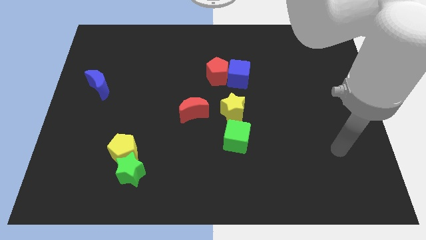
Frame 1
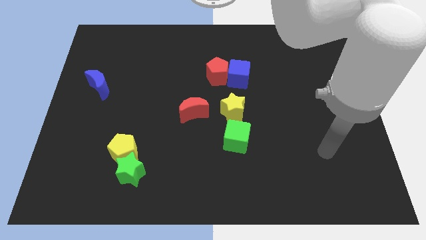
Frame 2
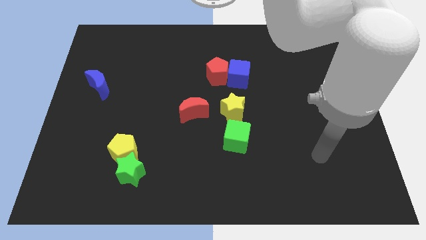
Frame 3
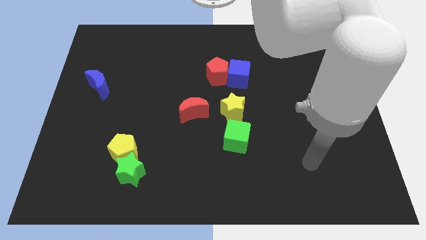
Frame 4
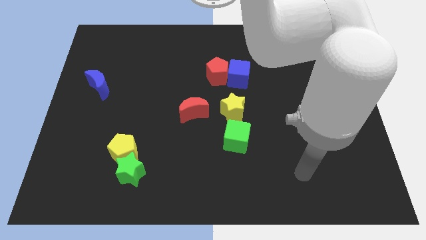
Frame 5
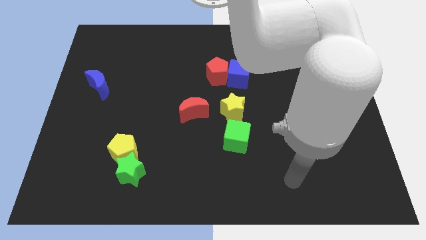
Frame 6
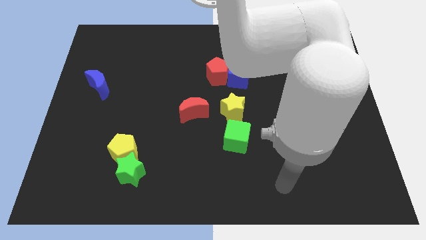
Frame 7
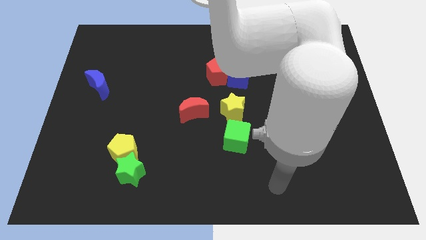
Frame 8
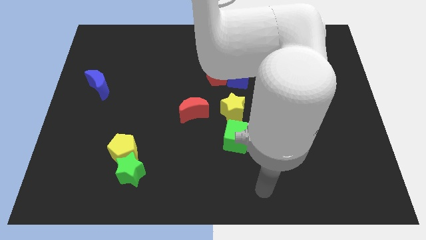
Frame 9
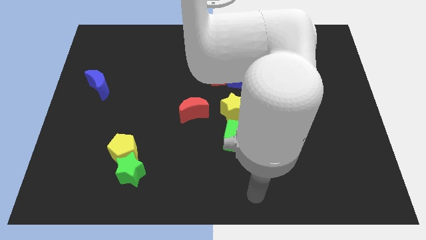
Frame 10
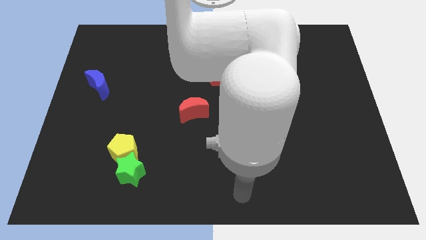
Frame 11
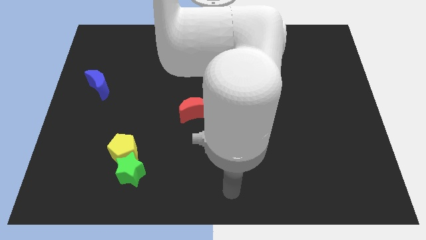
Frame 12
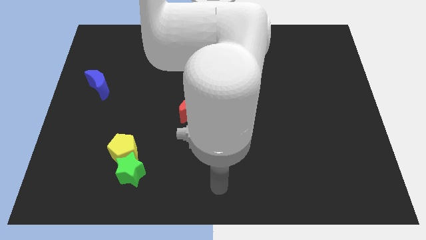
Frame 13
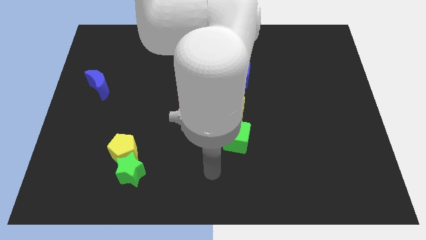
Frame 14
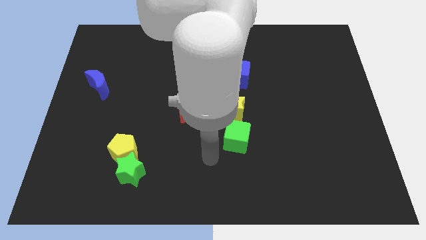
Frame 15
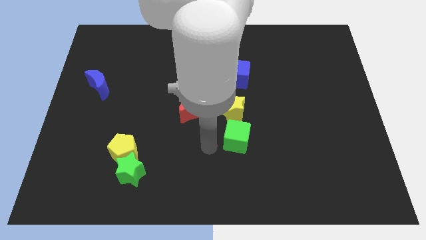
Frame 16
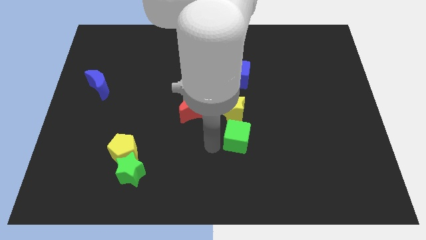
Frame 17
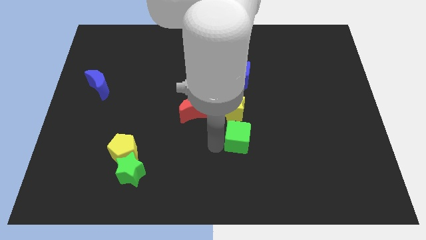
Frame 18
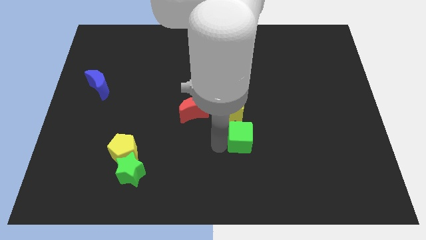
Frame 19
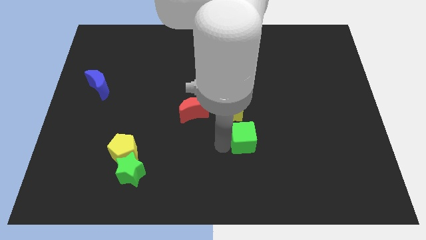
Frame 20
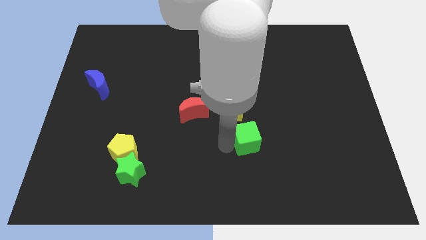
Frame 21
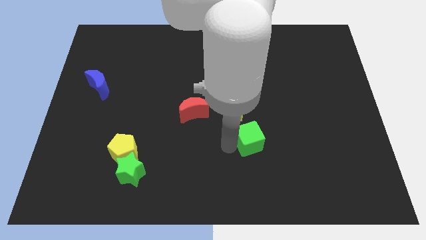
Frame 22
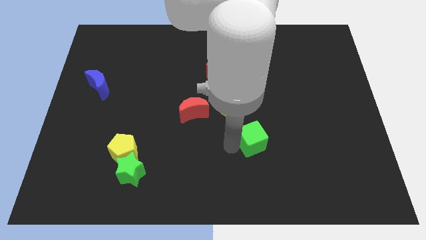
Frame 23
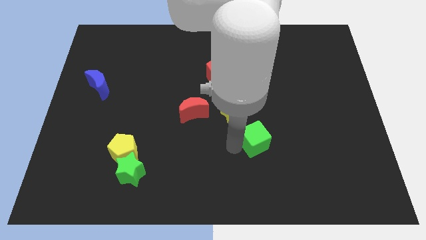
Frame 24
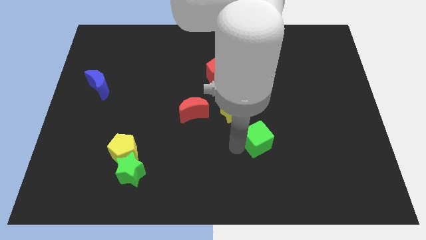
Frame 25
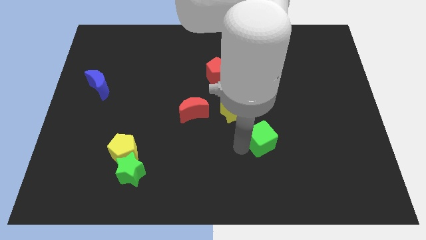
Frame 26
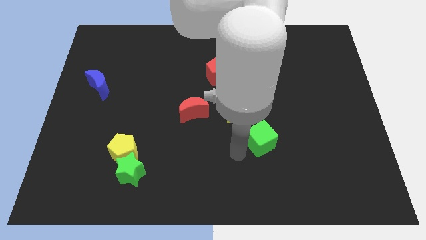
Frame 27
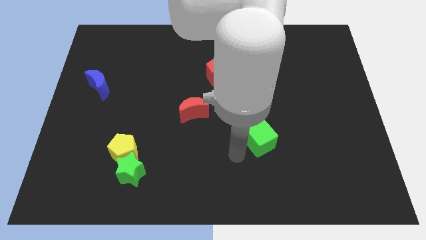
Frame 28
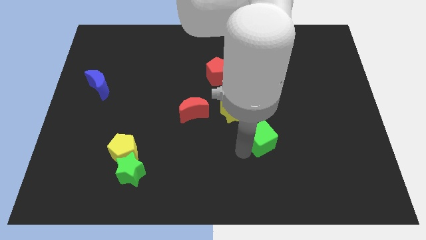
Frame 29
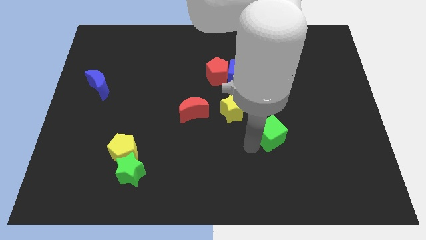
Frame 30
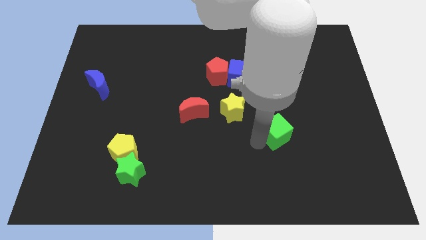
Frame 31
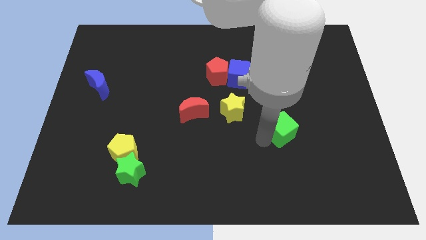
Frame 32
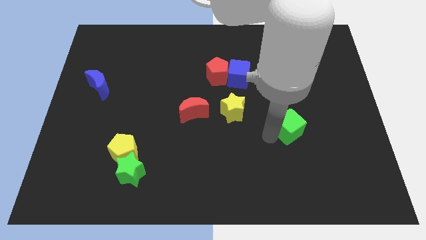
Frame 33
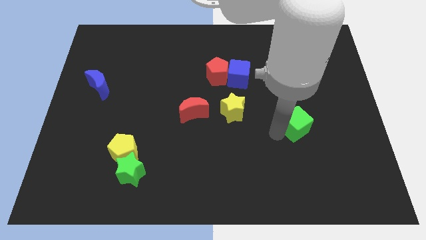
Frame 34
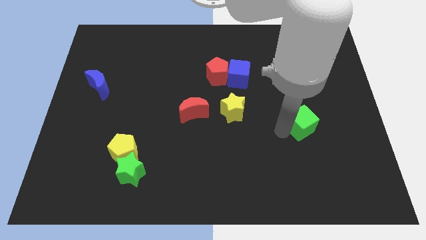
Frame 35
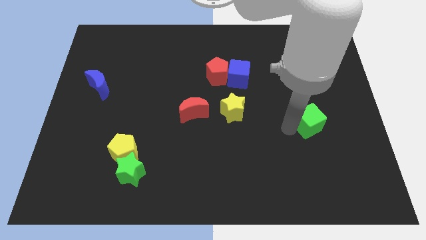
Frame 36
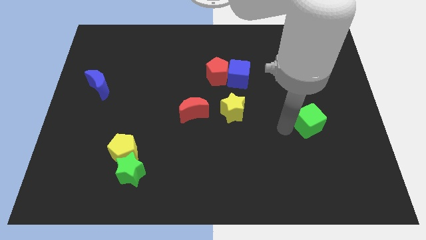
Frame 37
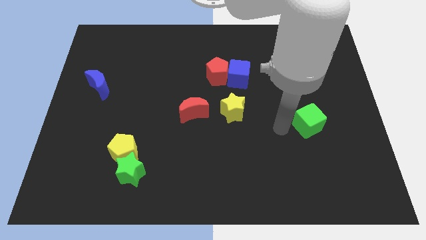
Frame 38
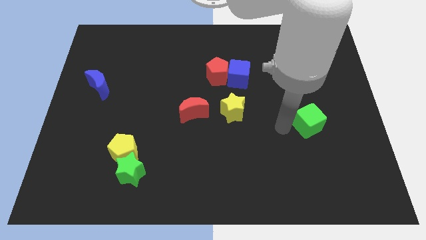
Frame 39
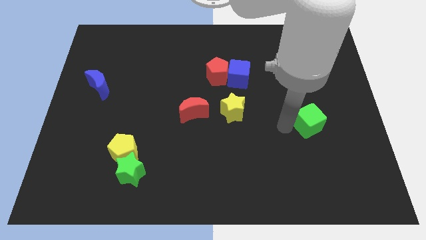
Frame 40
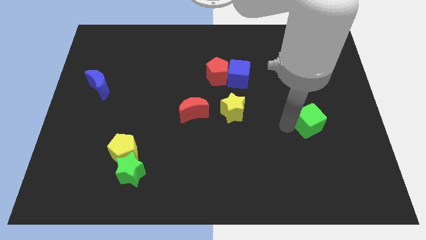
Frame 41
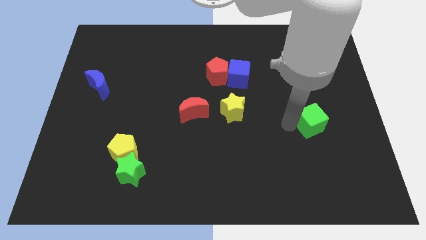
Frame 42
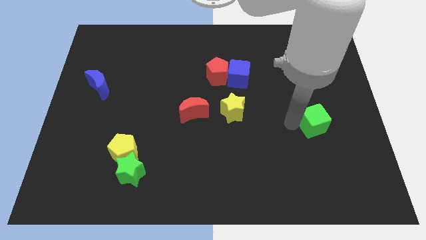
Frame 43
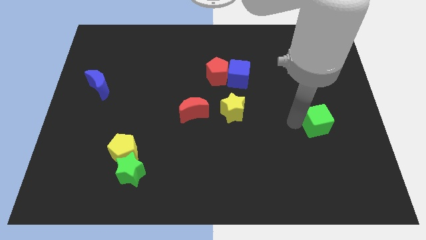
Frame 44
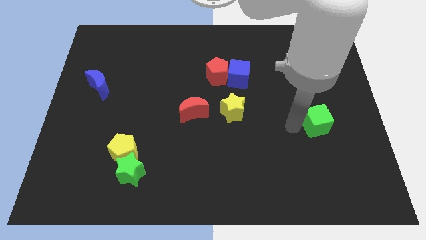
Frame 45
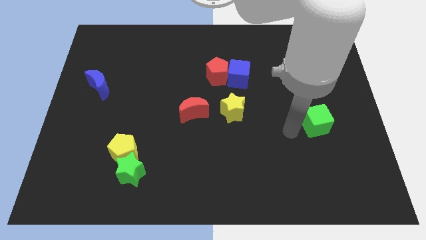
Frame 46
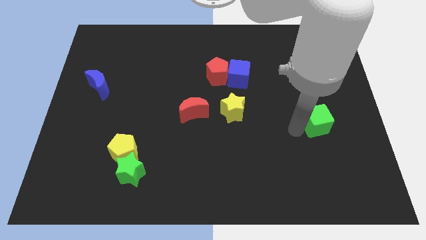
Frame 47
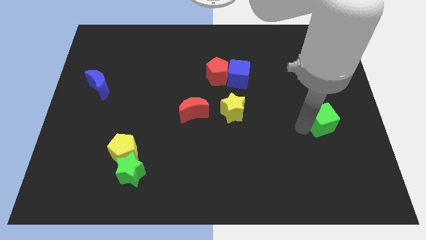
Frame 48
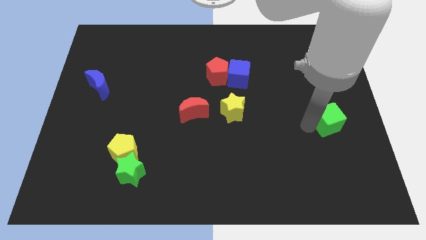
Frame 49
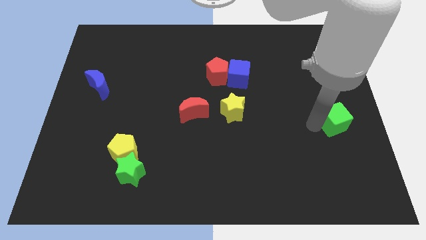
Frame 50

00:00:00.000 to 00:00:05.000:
slide the green cube to the right side

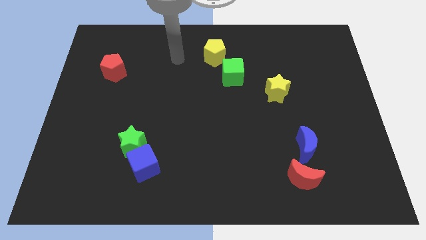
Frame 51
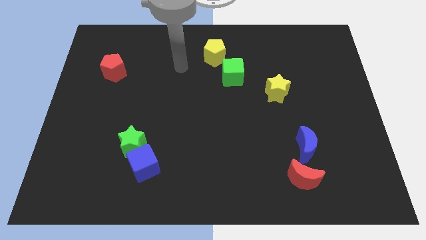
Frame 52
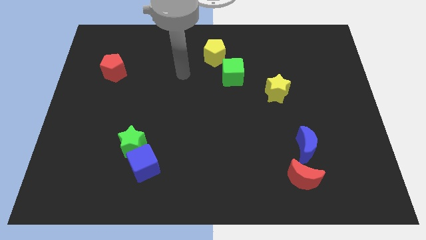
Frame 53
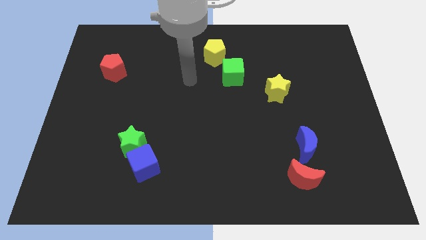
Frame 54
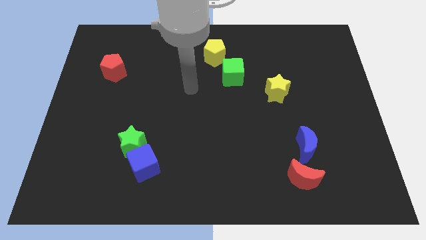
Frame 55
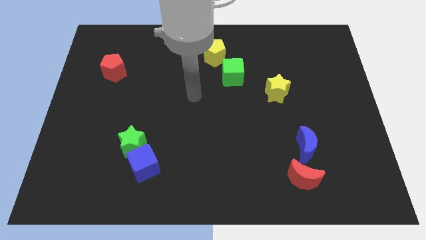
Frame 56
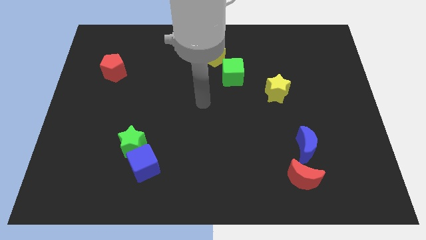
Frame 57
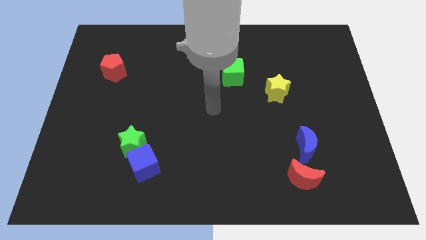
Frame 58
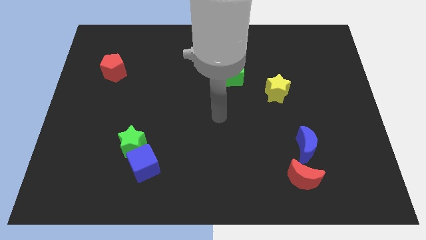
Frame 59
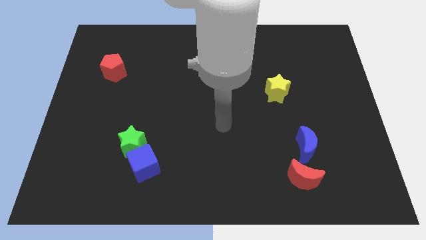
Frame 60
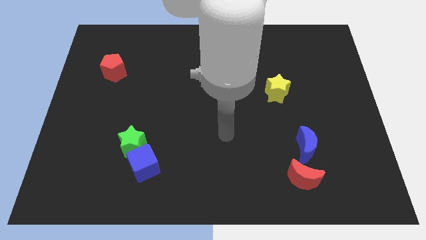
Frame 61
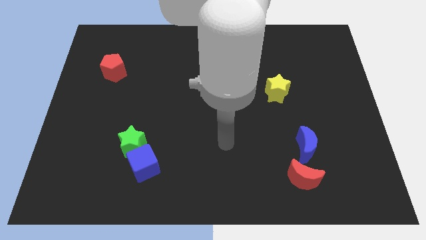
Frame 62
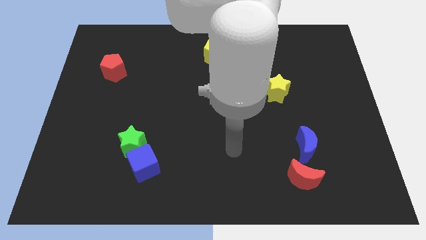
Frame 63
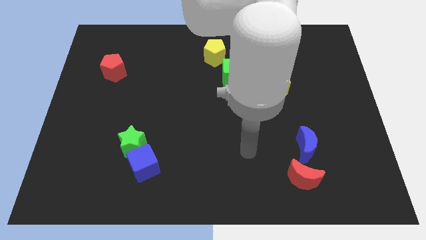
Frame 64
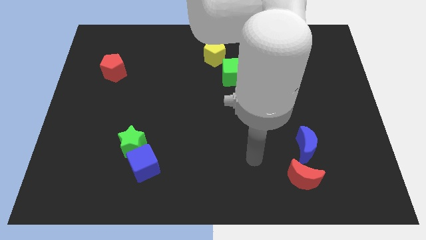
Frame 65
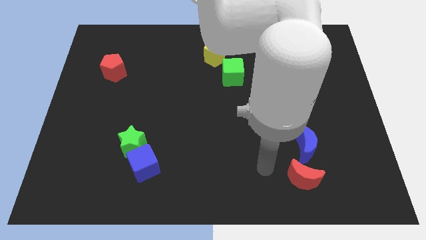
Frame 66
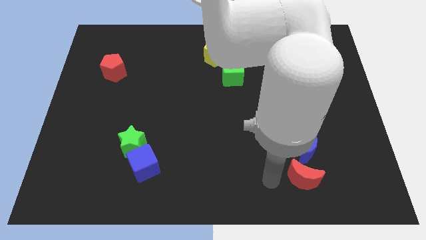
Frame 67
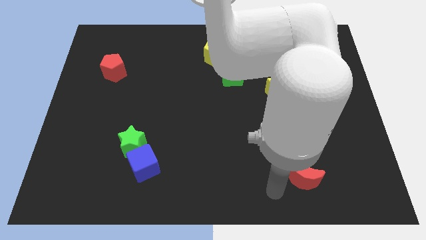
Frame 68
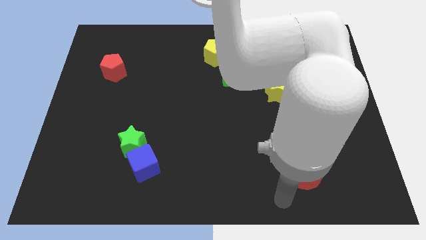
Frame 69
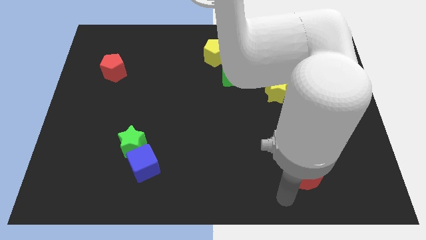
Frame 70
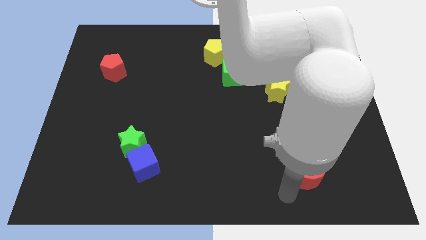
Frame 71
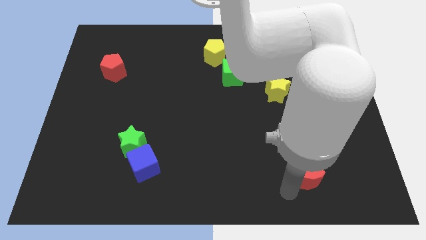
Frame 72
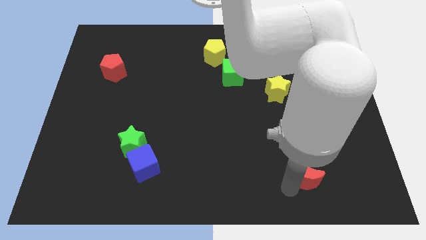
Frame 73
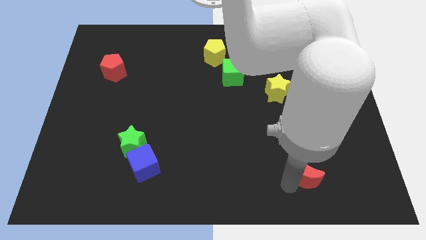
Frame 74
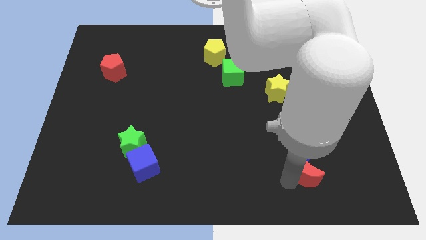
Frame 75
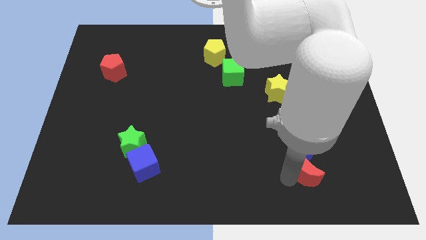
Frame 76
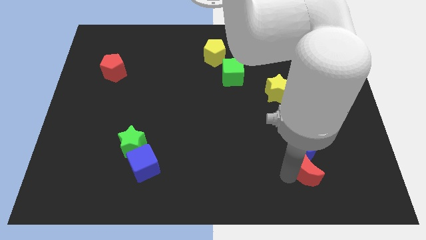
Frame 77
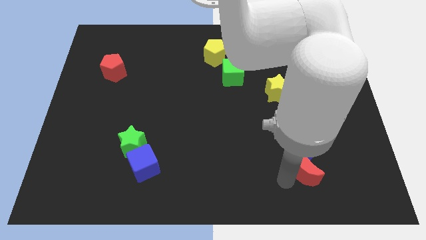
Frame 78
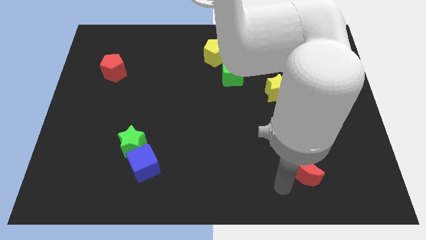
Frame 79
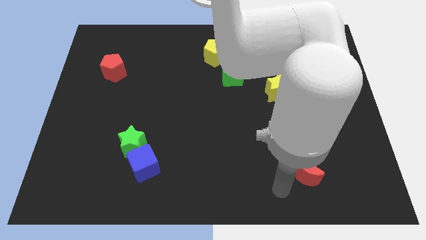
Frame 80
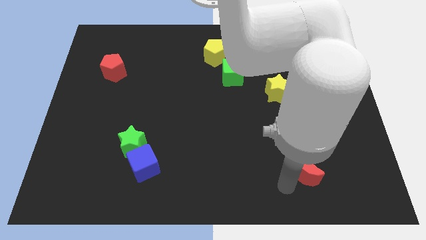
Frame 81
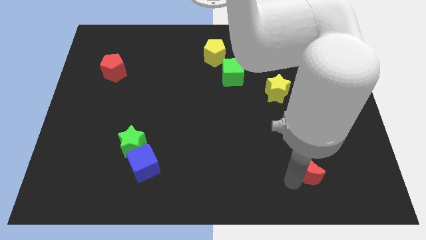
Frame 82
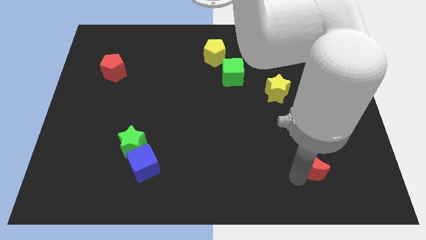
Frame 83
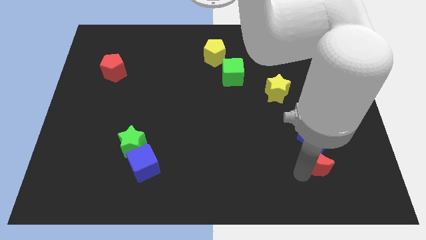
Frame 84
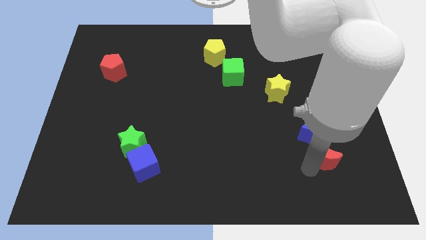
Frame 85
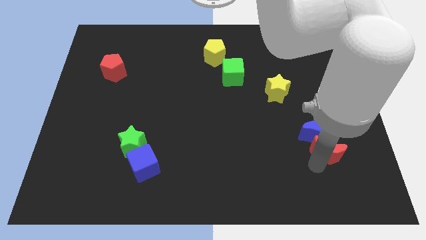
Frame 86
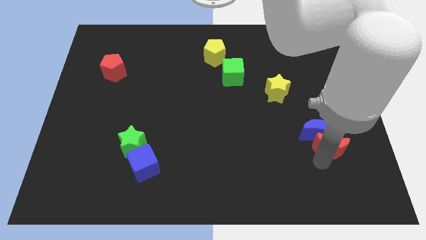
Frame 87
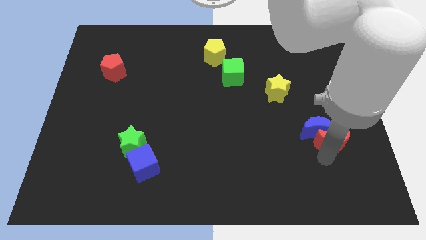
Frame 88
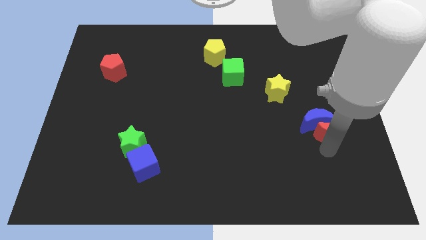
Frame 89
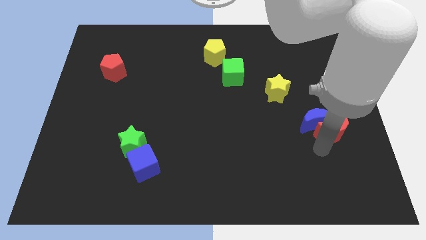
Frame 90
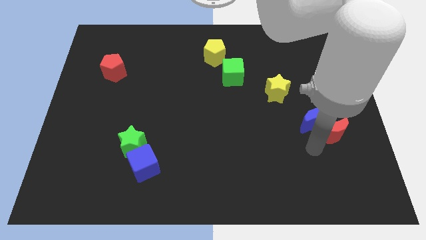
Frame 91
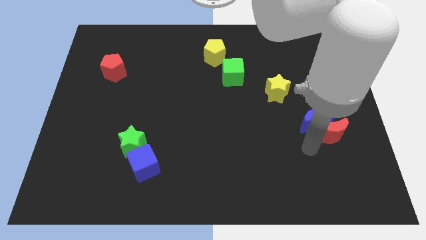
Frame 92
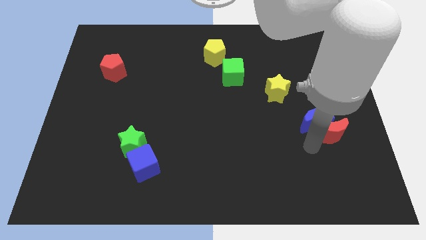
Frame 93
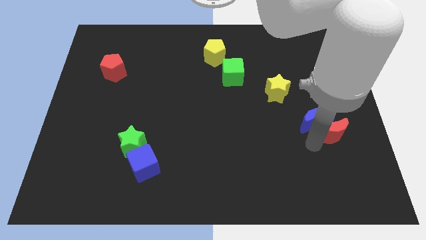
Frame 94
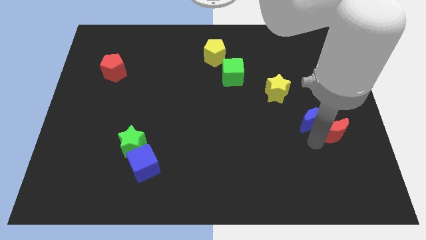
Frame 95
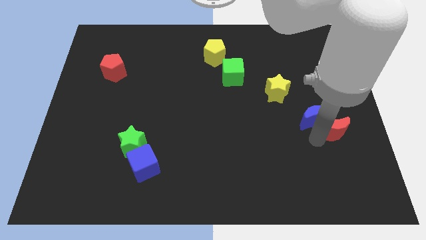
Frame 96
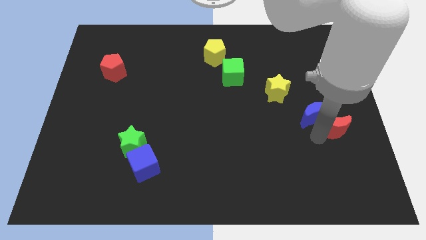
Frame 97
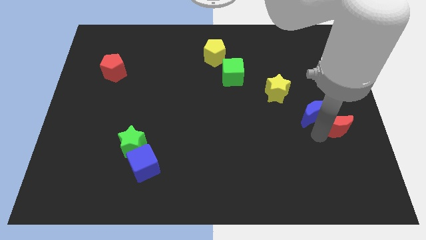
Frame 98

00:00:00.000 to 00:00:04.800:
slide the red moon to the right side of the board
